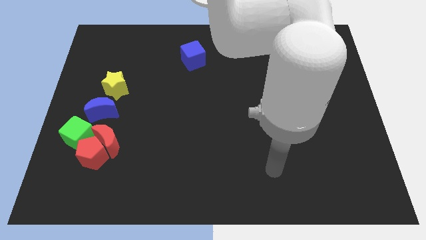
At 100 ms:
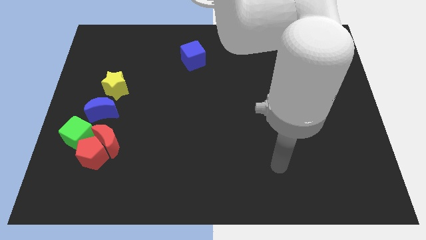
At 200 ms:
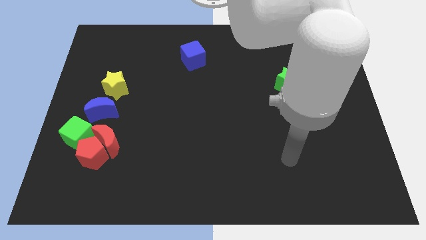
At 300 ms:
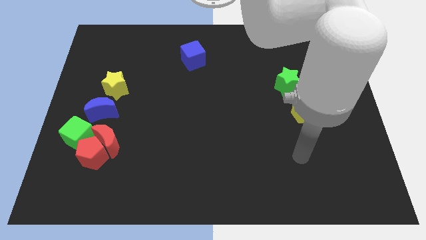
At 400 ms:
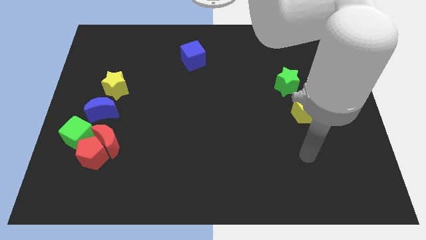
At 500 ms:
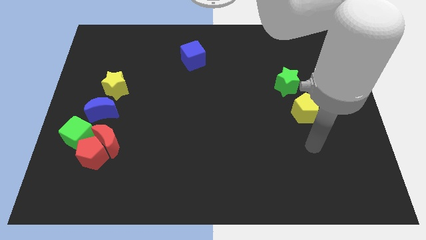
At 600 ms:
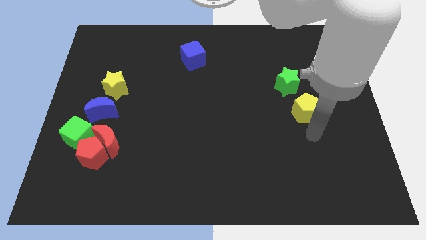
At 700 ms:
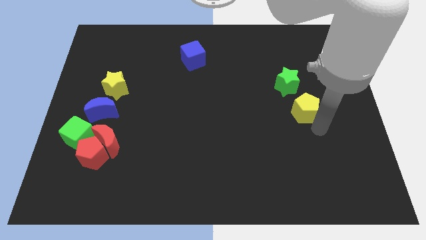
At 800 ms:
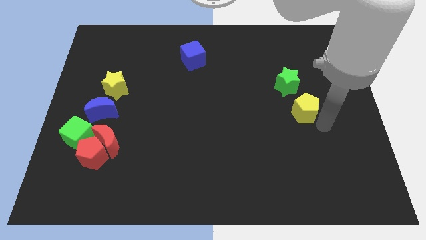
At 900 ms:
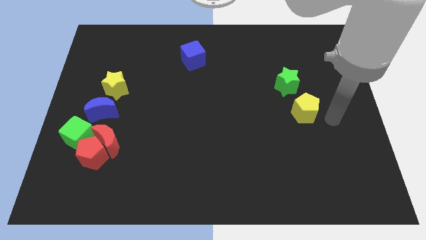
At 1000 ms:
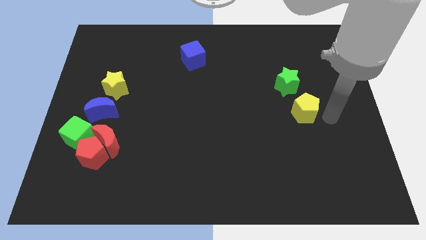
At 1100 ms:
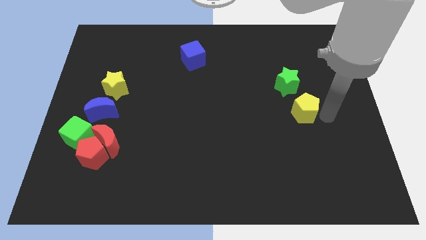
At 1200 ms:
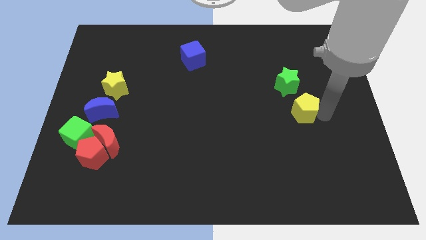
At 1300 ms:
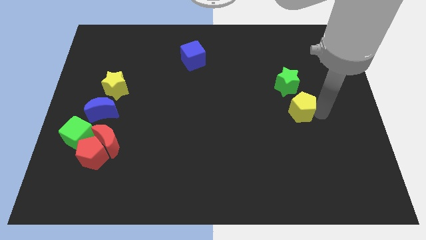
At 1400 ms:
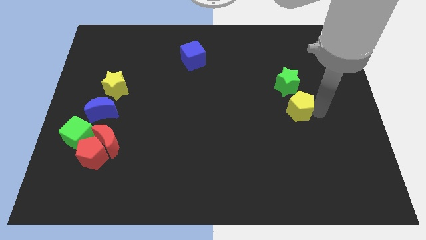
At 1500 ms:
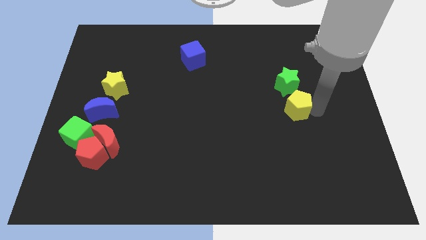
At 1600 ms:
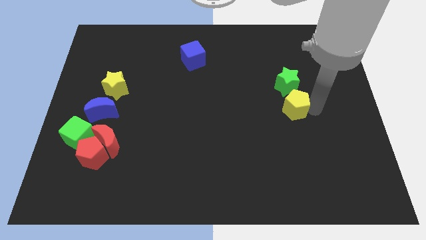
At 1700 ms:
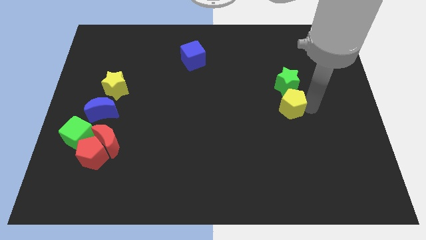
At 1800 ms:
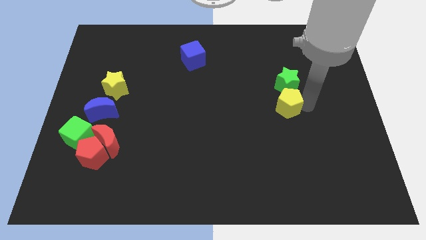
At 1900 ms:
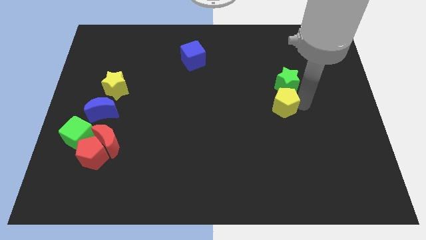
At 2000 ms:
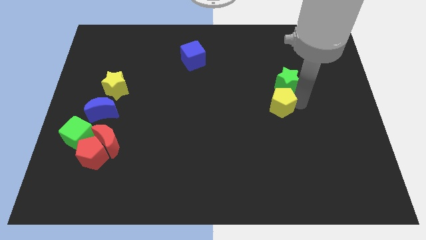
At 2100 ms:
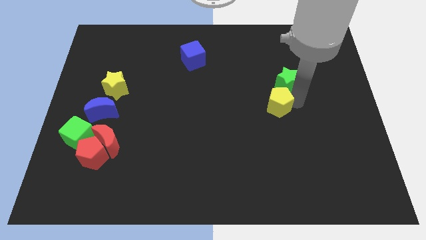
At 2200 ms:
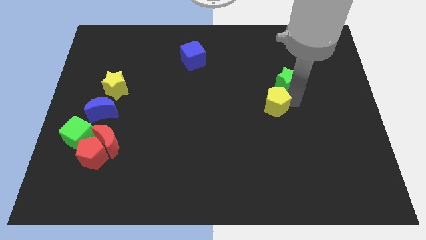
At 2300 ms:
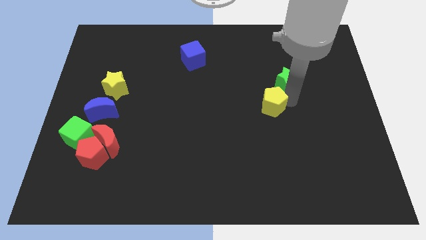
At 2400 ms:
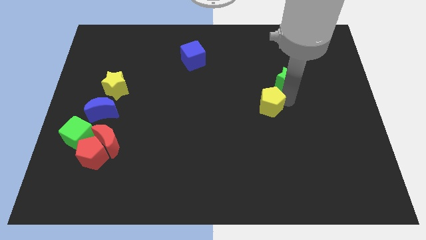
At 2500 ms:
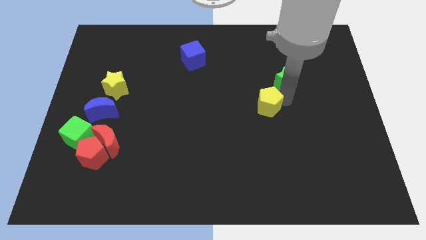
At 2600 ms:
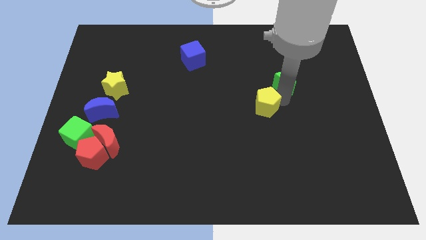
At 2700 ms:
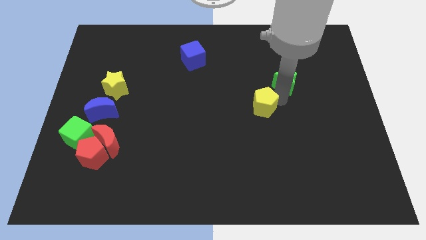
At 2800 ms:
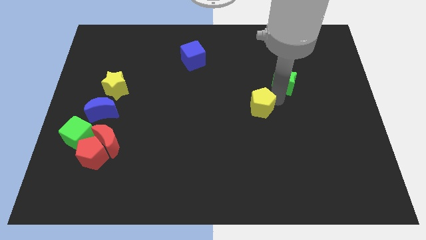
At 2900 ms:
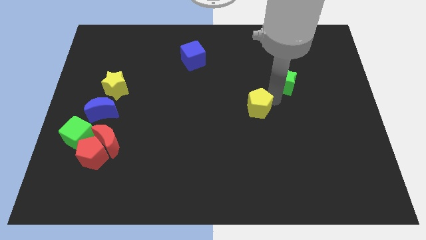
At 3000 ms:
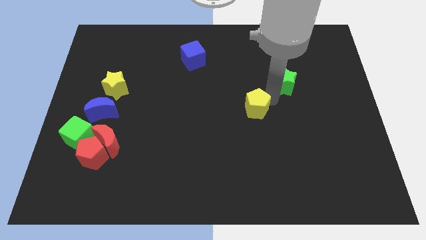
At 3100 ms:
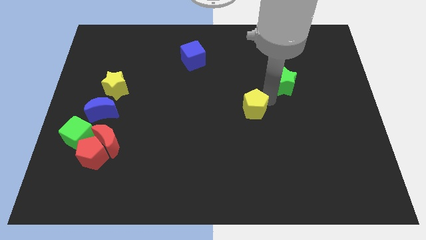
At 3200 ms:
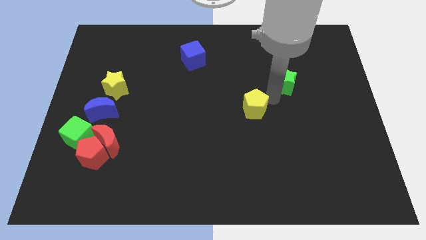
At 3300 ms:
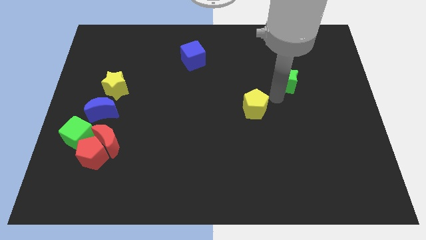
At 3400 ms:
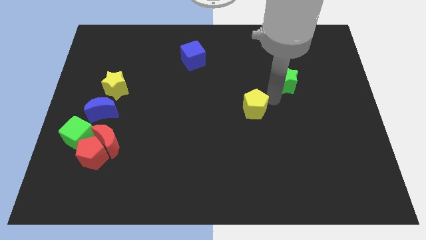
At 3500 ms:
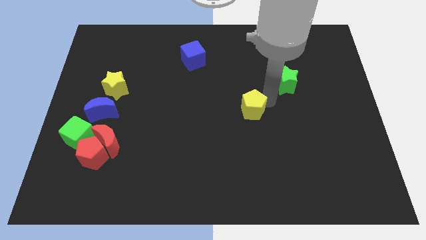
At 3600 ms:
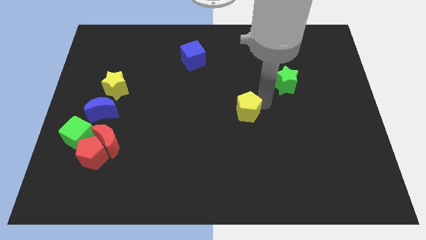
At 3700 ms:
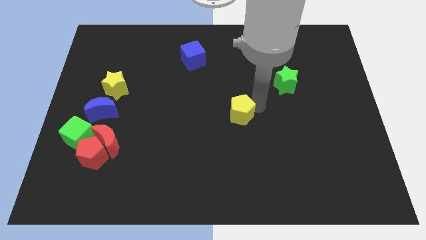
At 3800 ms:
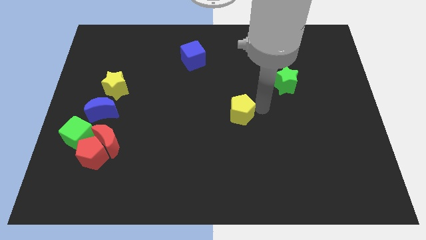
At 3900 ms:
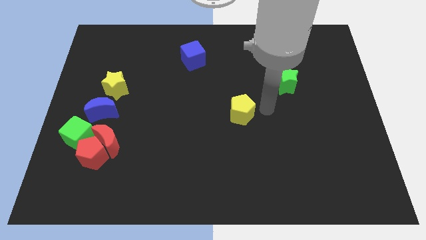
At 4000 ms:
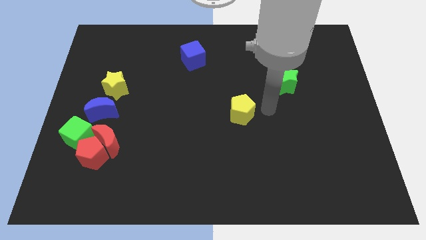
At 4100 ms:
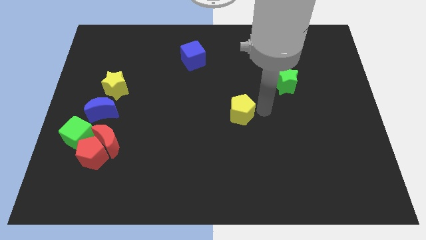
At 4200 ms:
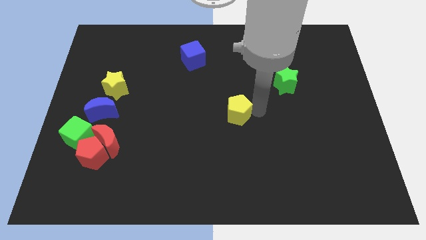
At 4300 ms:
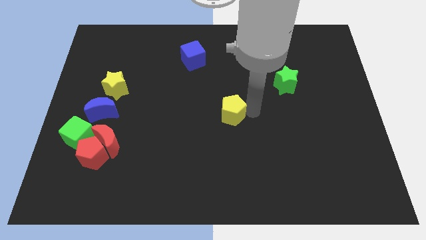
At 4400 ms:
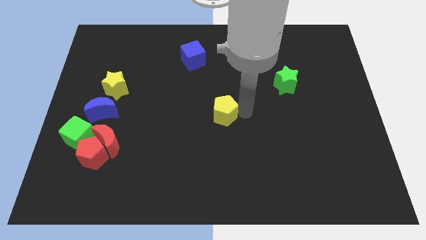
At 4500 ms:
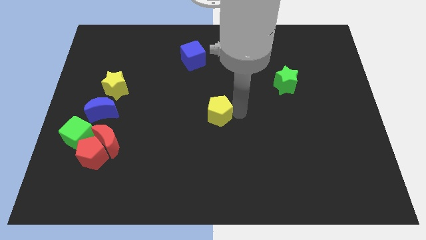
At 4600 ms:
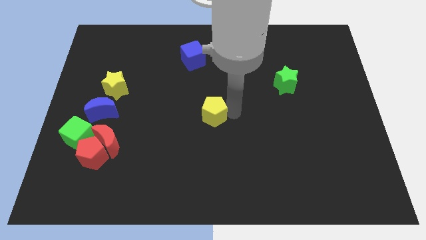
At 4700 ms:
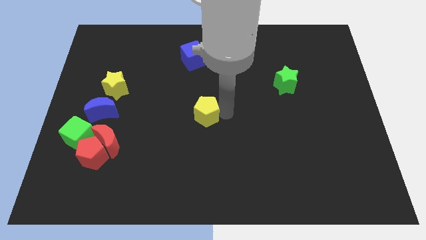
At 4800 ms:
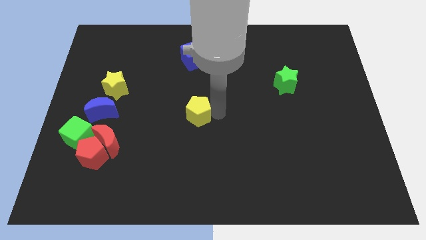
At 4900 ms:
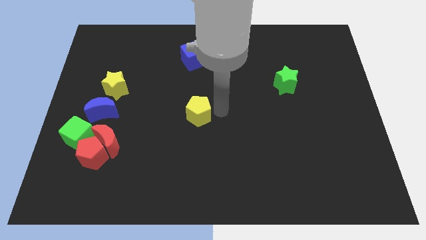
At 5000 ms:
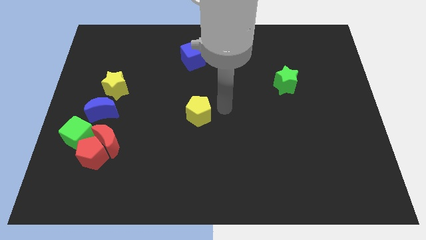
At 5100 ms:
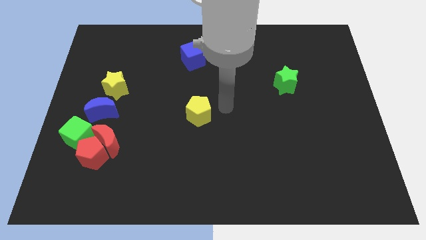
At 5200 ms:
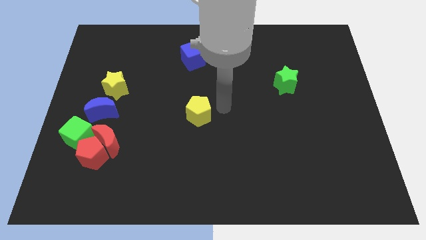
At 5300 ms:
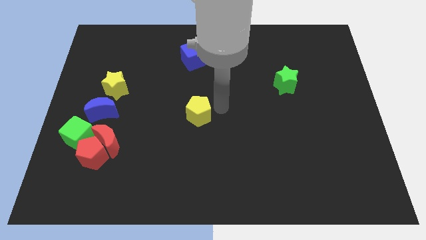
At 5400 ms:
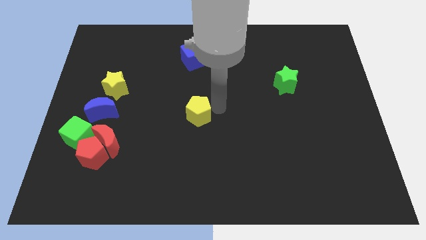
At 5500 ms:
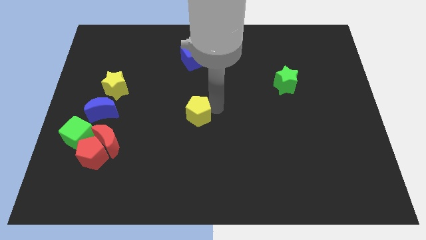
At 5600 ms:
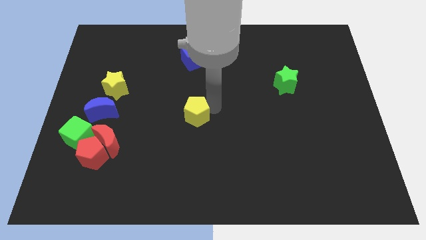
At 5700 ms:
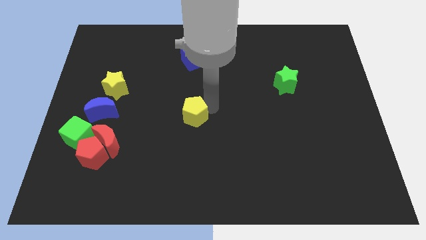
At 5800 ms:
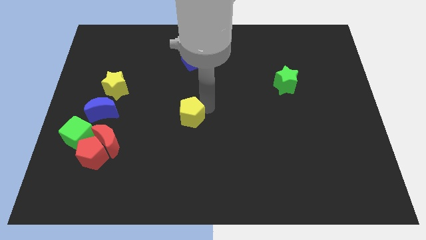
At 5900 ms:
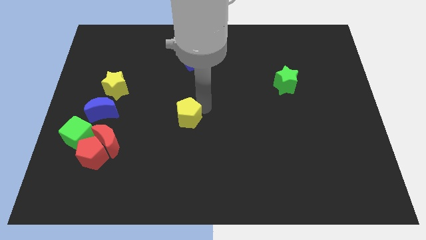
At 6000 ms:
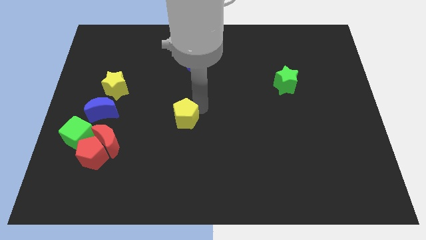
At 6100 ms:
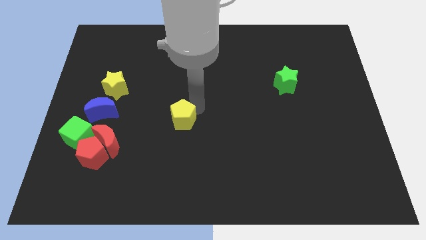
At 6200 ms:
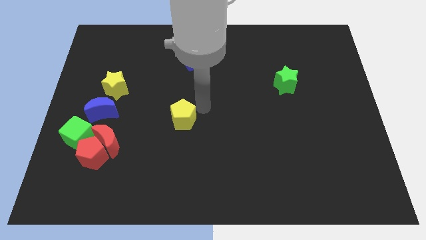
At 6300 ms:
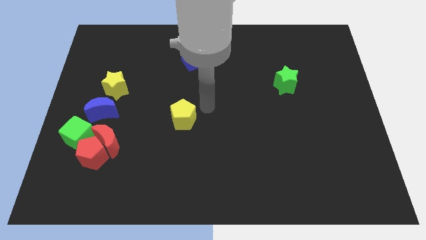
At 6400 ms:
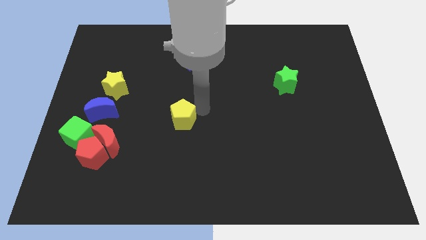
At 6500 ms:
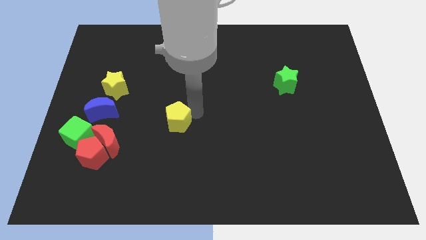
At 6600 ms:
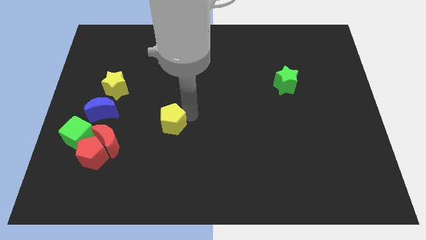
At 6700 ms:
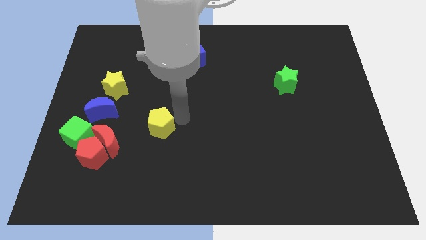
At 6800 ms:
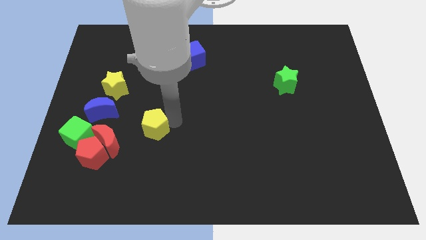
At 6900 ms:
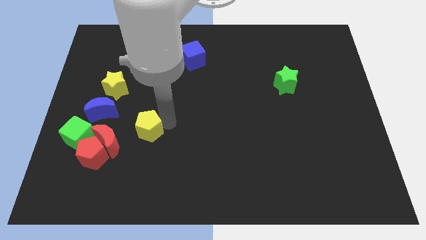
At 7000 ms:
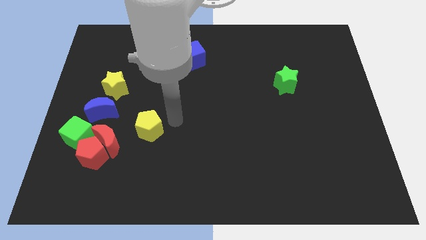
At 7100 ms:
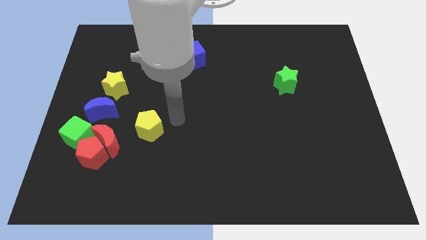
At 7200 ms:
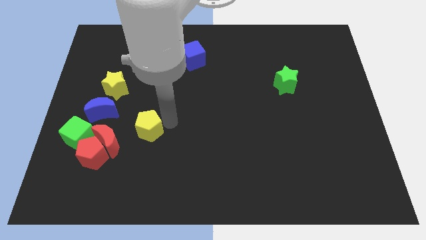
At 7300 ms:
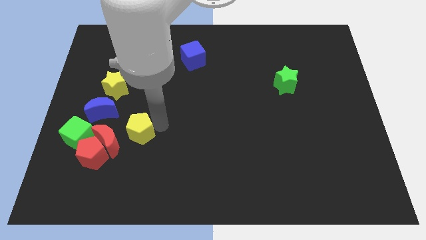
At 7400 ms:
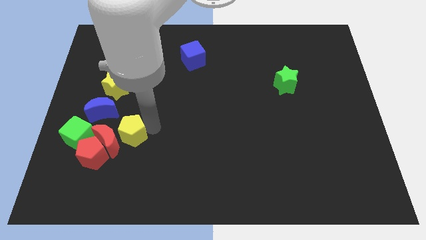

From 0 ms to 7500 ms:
slide the yellow pentagon to the red moon
